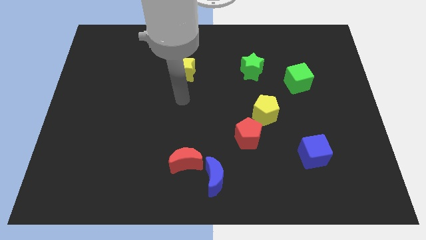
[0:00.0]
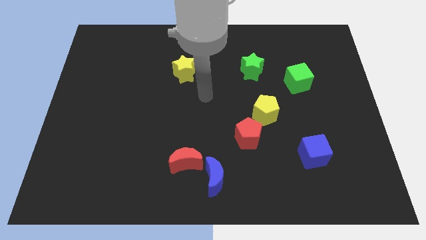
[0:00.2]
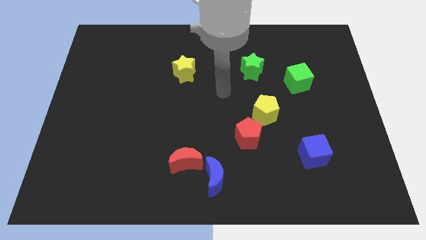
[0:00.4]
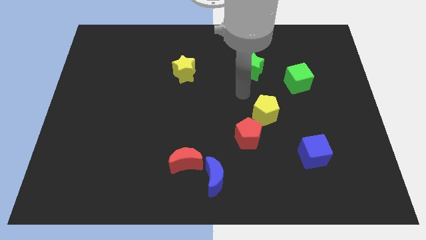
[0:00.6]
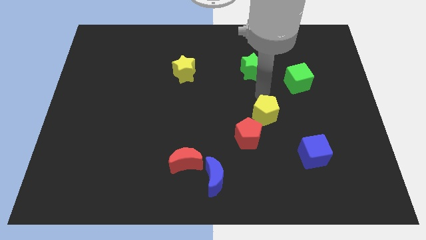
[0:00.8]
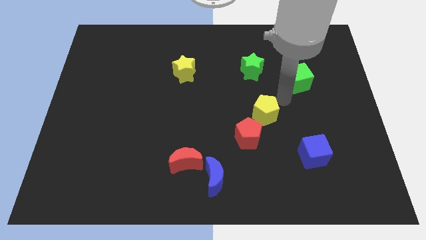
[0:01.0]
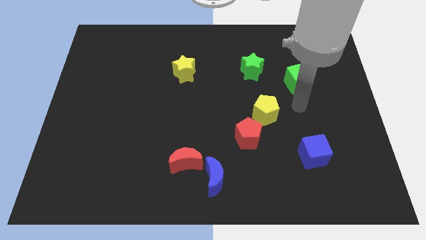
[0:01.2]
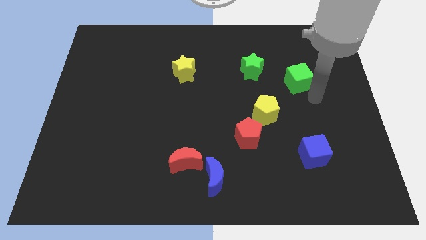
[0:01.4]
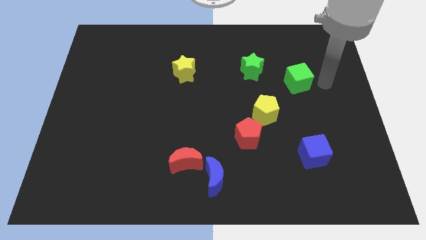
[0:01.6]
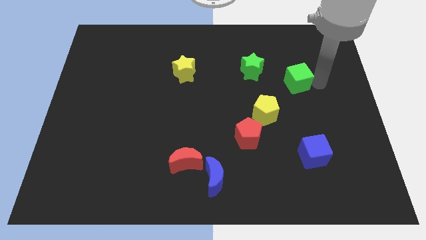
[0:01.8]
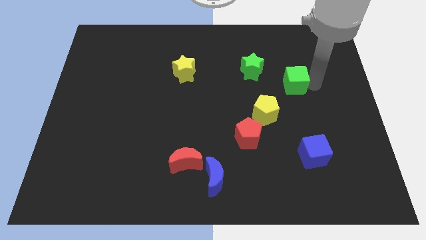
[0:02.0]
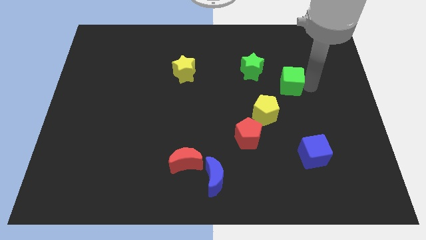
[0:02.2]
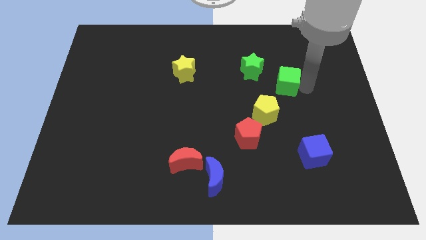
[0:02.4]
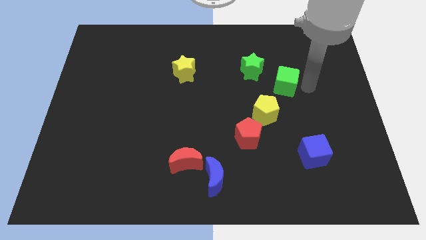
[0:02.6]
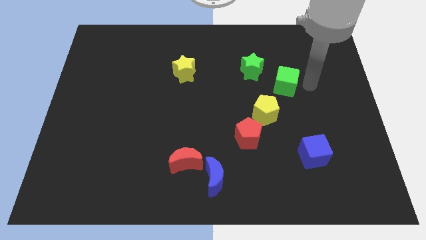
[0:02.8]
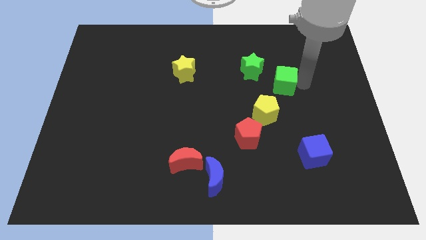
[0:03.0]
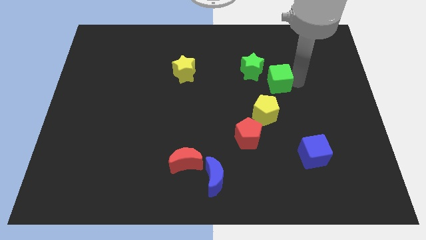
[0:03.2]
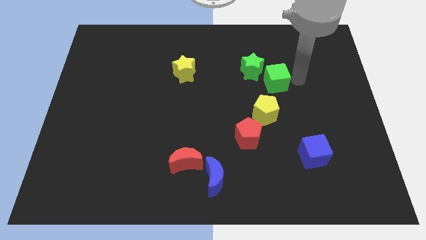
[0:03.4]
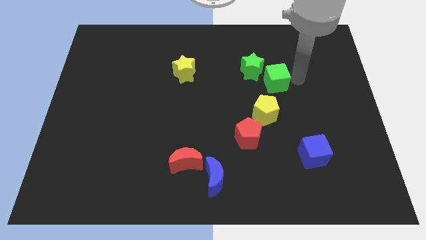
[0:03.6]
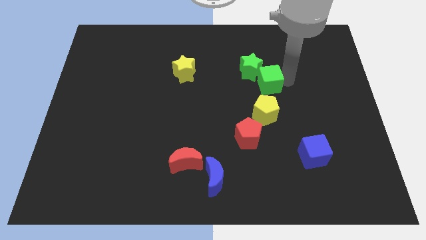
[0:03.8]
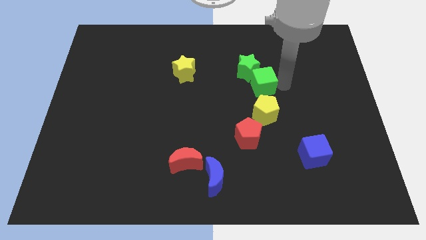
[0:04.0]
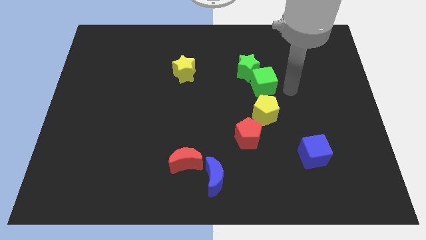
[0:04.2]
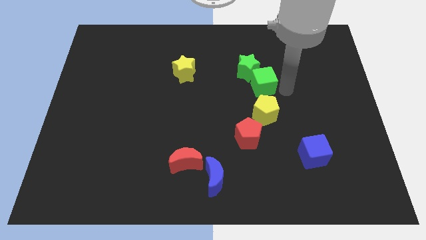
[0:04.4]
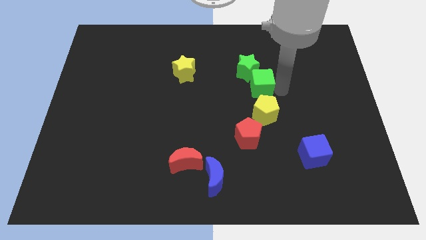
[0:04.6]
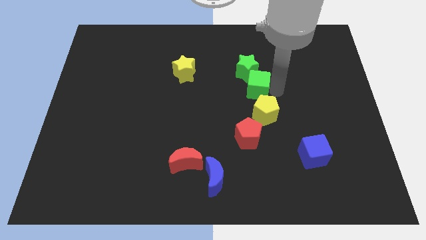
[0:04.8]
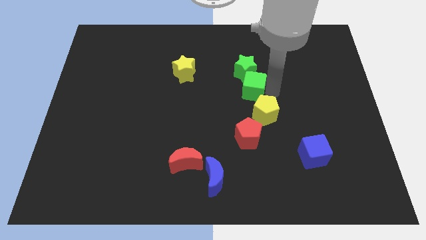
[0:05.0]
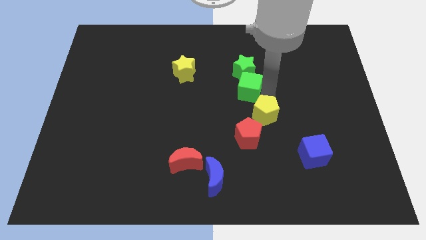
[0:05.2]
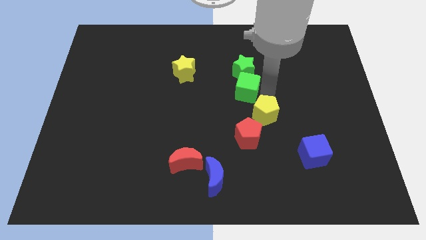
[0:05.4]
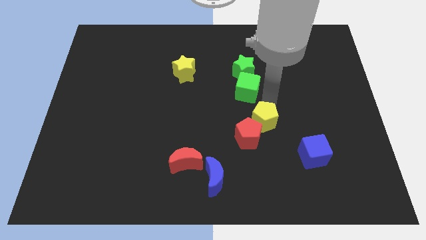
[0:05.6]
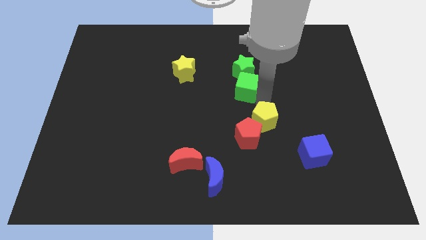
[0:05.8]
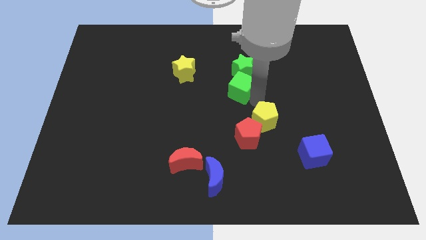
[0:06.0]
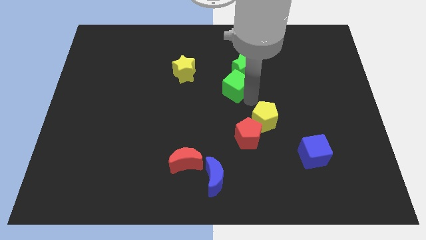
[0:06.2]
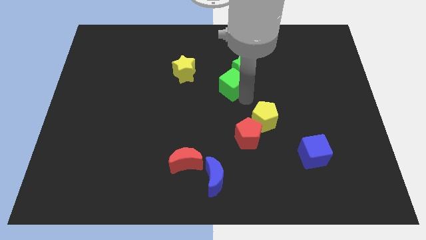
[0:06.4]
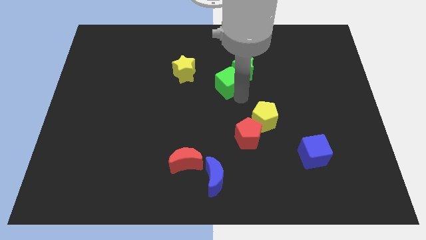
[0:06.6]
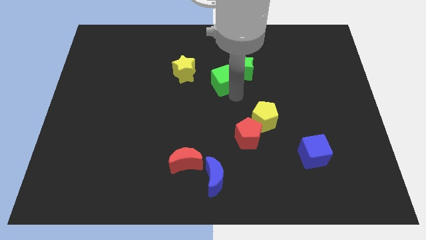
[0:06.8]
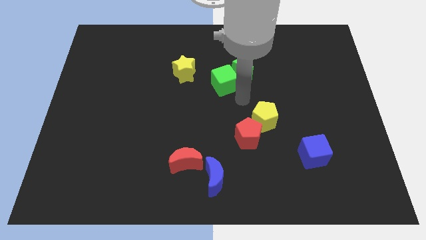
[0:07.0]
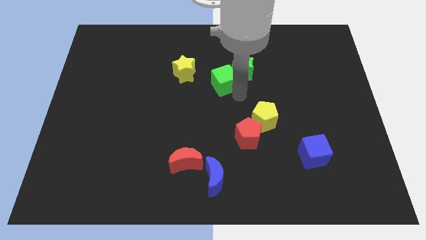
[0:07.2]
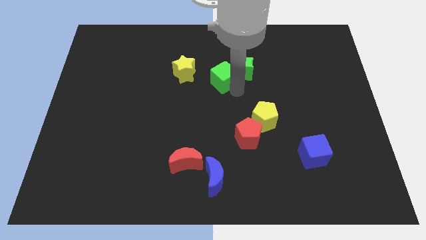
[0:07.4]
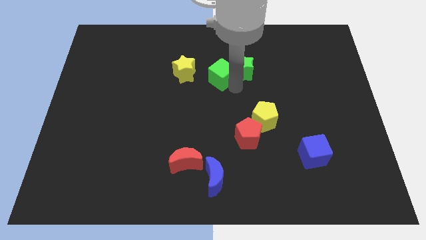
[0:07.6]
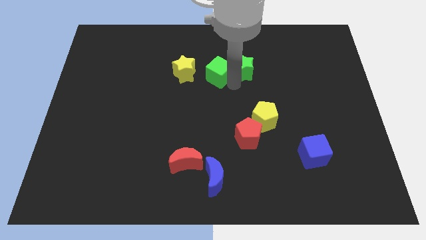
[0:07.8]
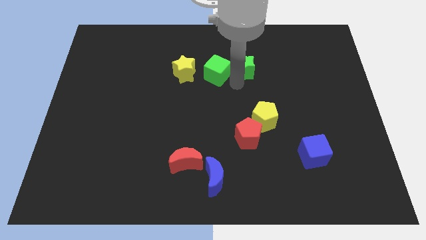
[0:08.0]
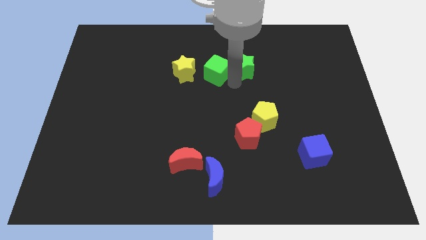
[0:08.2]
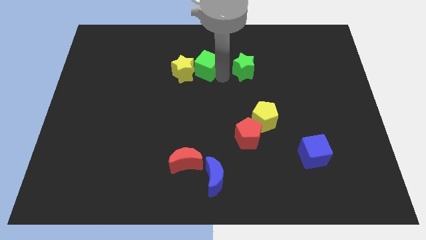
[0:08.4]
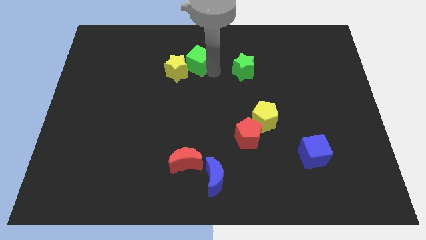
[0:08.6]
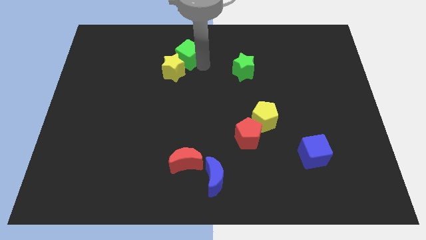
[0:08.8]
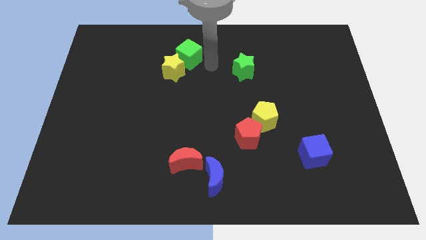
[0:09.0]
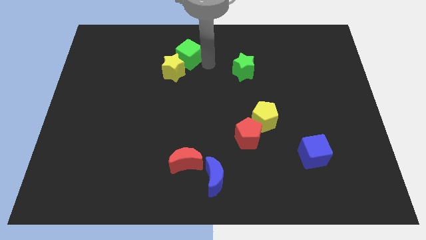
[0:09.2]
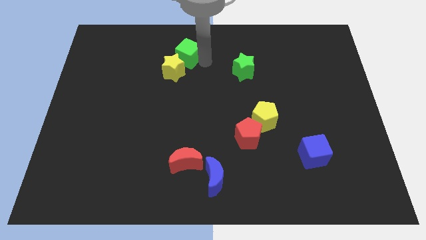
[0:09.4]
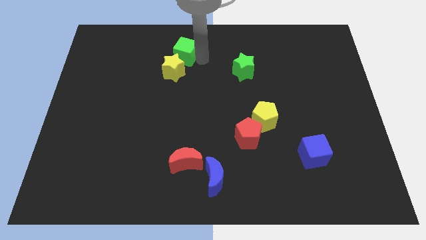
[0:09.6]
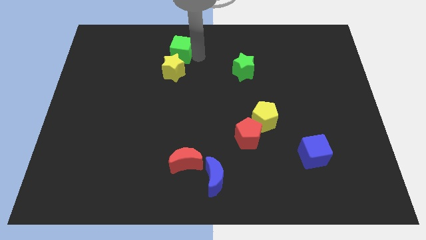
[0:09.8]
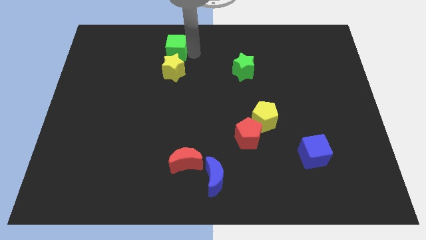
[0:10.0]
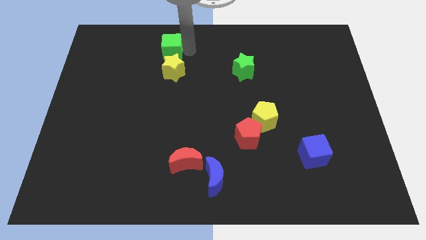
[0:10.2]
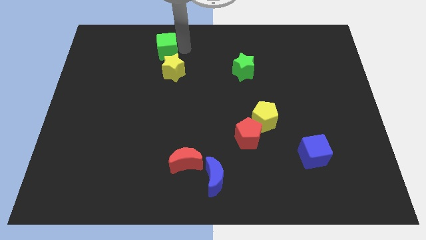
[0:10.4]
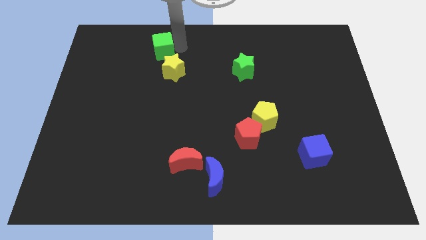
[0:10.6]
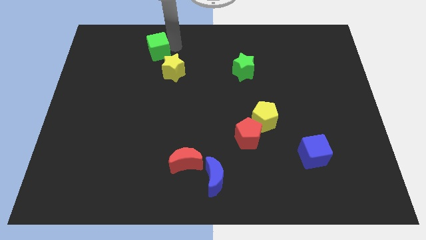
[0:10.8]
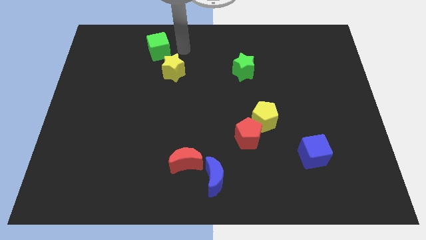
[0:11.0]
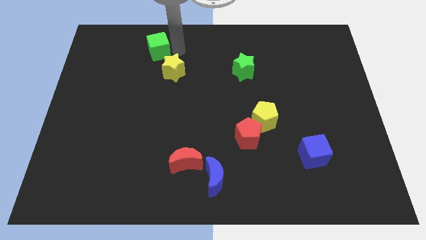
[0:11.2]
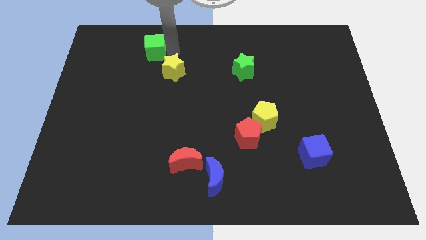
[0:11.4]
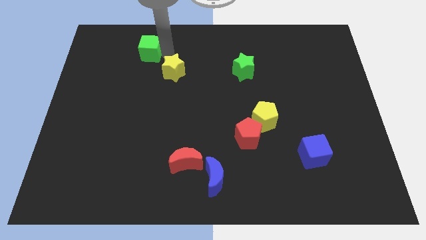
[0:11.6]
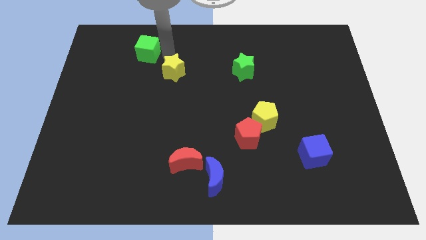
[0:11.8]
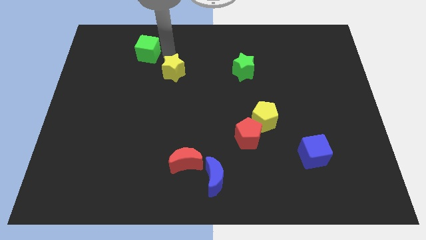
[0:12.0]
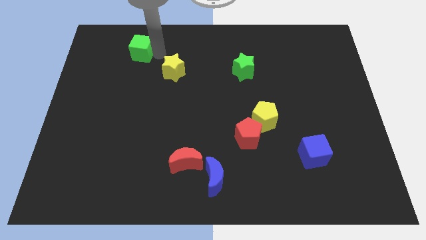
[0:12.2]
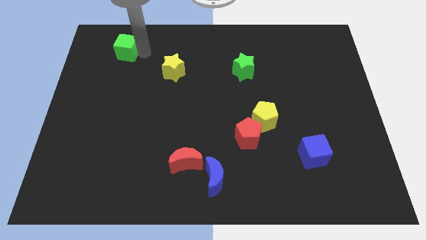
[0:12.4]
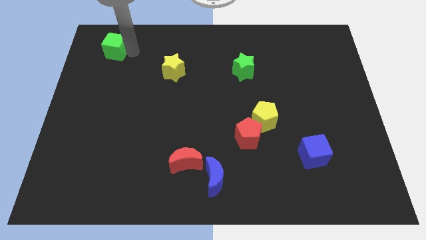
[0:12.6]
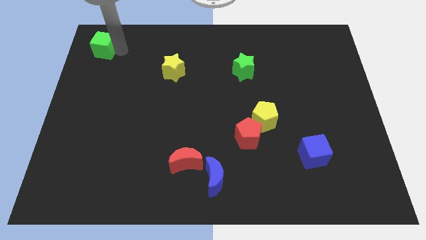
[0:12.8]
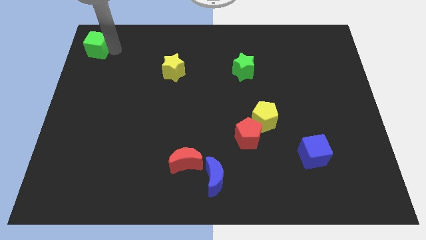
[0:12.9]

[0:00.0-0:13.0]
move the green cube to the top left
